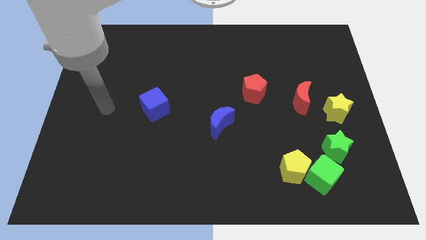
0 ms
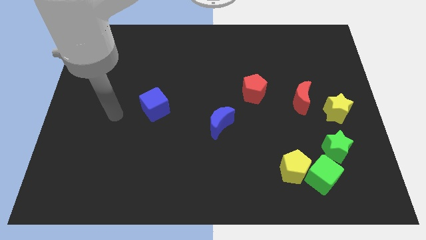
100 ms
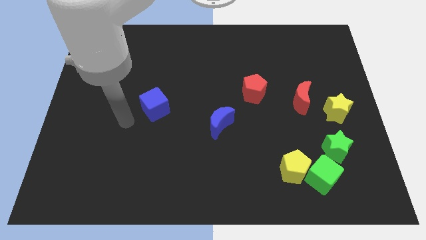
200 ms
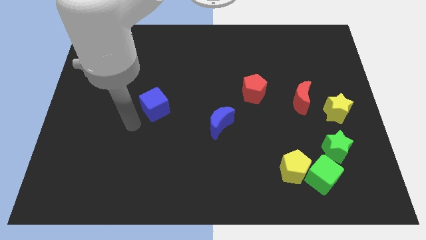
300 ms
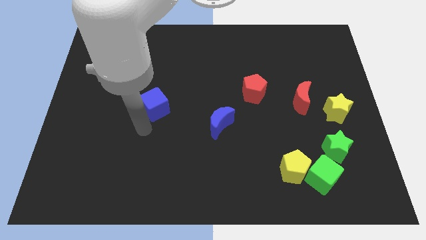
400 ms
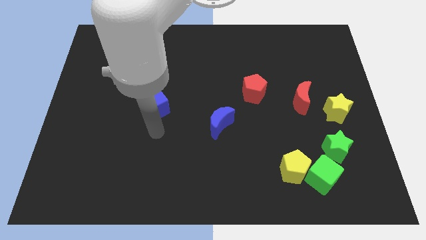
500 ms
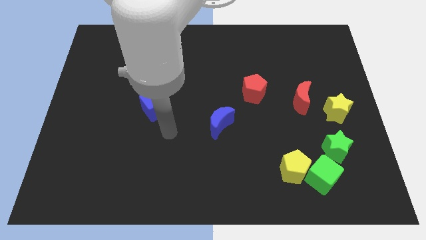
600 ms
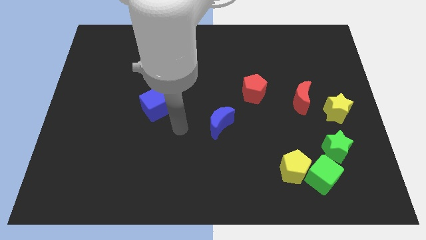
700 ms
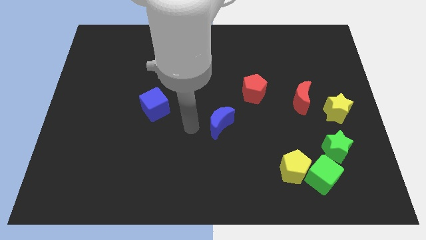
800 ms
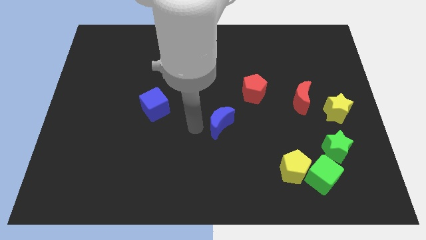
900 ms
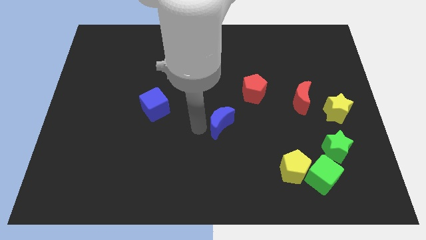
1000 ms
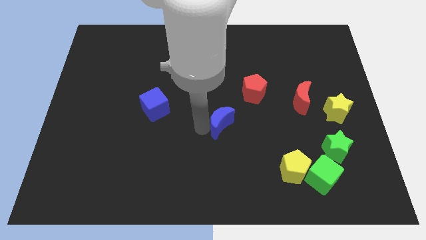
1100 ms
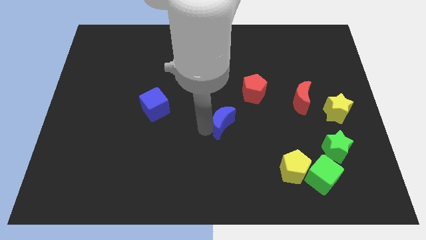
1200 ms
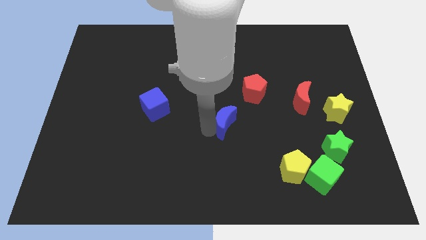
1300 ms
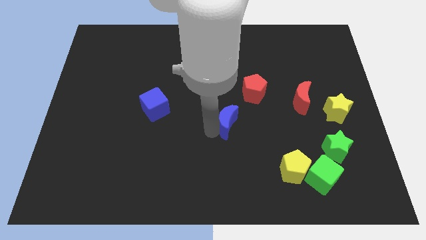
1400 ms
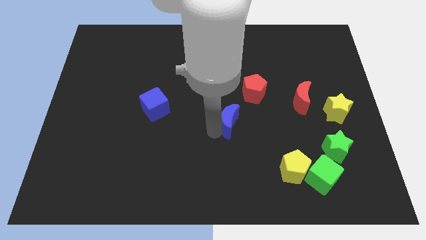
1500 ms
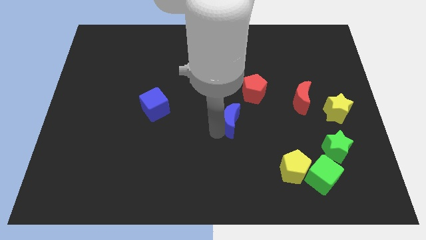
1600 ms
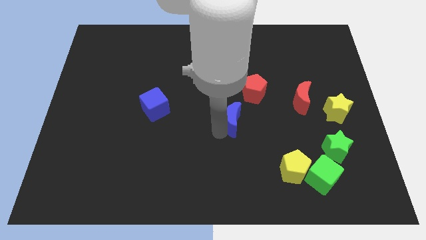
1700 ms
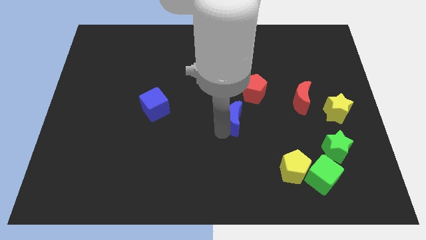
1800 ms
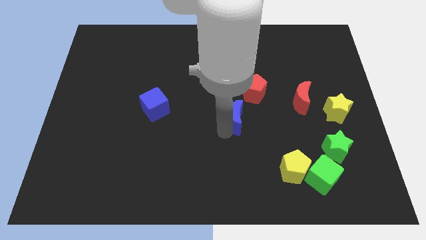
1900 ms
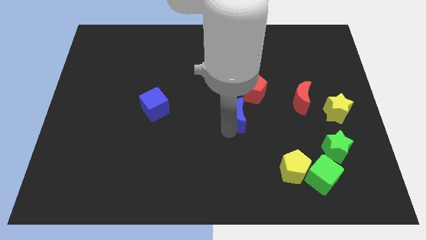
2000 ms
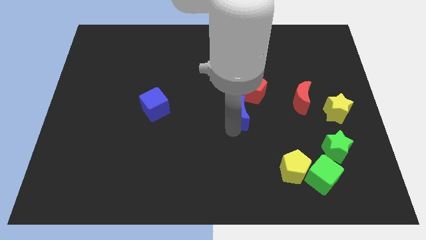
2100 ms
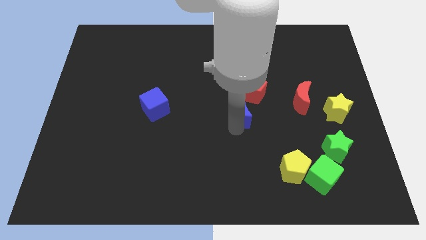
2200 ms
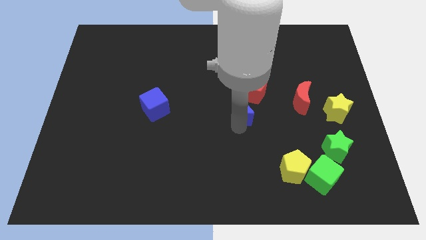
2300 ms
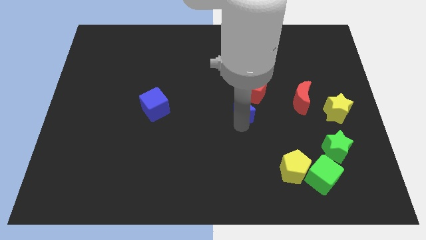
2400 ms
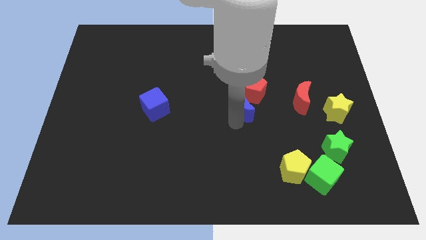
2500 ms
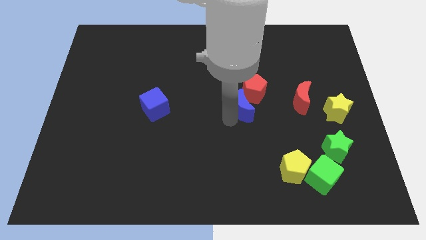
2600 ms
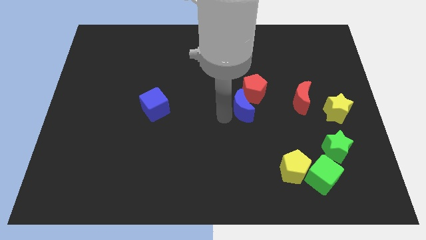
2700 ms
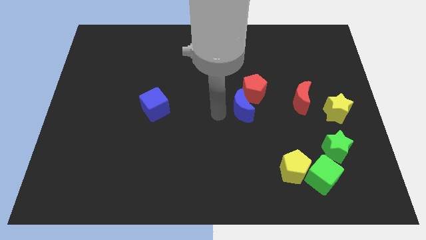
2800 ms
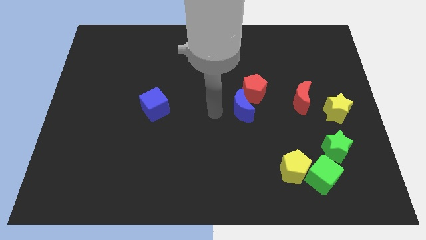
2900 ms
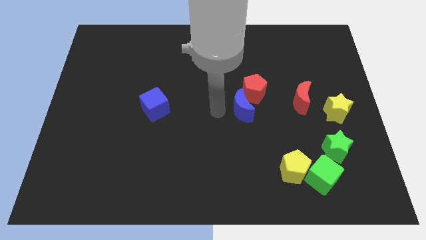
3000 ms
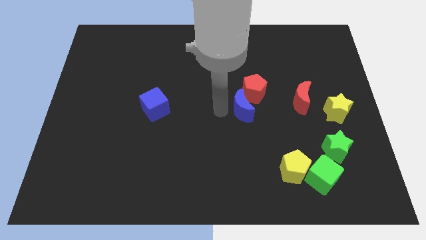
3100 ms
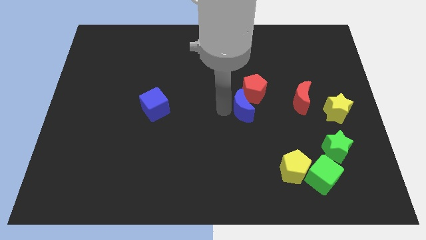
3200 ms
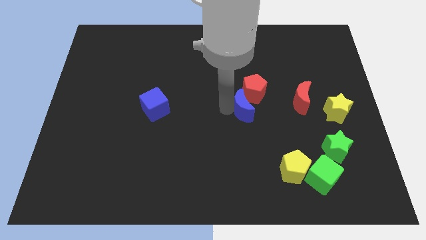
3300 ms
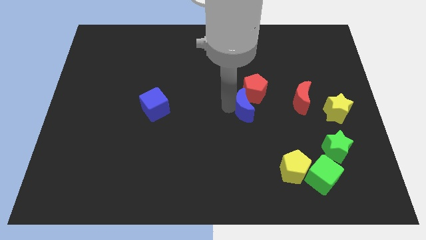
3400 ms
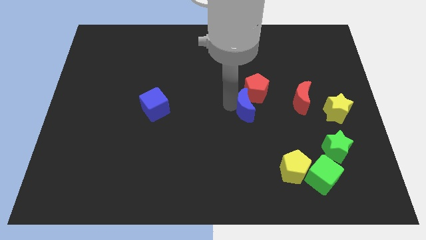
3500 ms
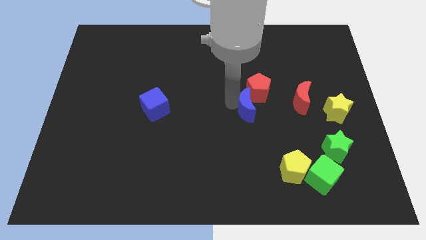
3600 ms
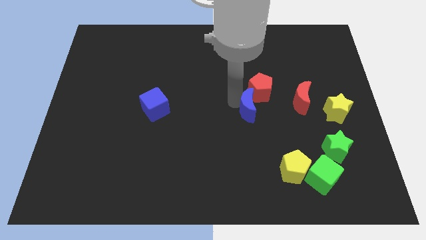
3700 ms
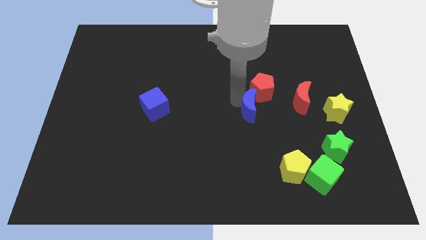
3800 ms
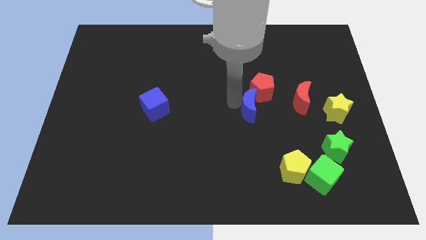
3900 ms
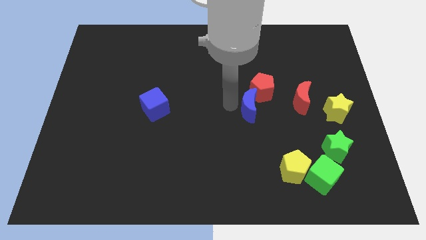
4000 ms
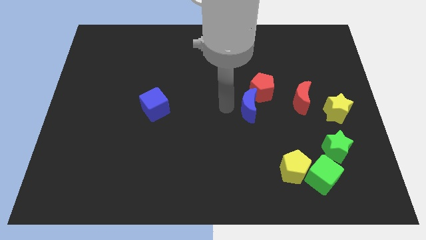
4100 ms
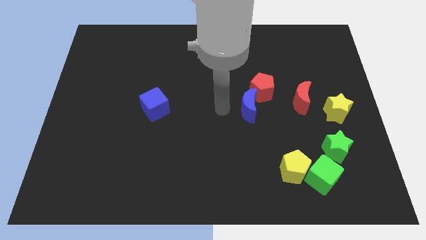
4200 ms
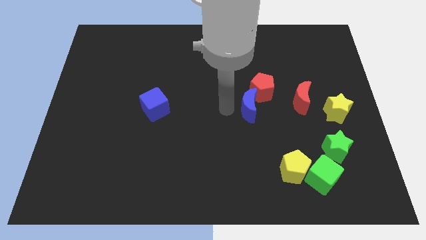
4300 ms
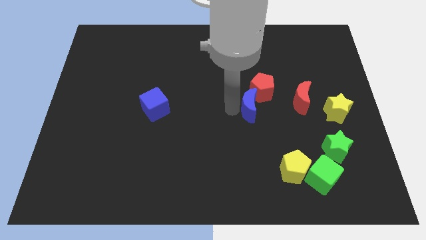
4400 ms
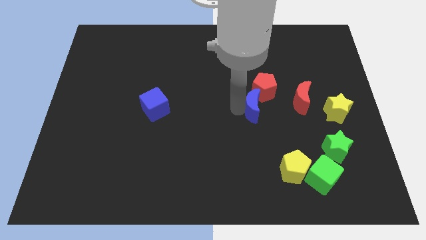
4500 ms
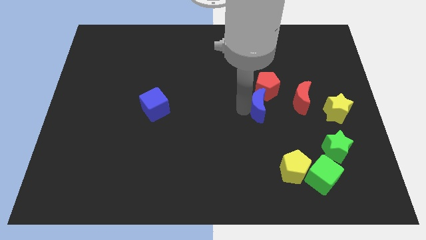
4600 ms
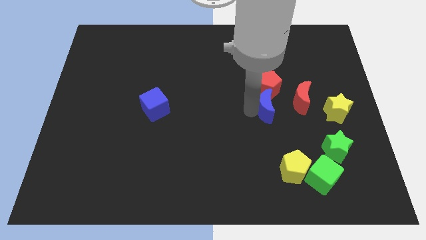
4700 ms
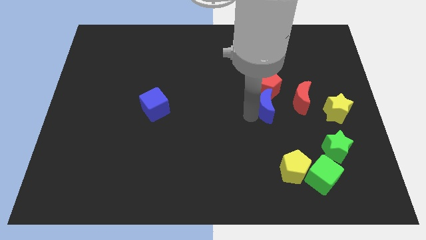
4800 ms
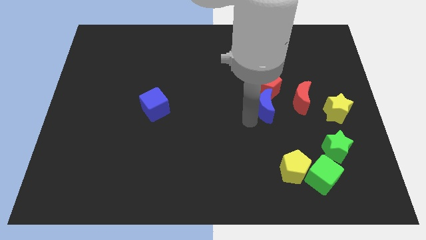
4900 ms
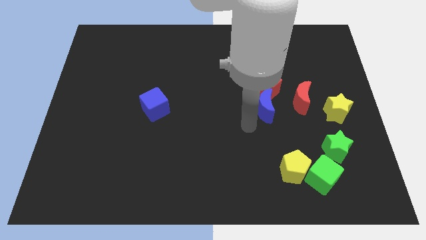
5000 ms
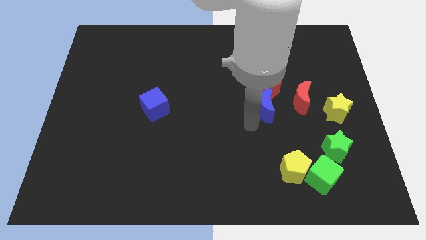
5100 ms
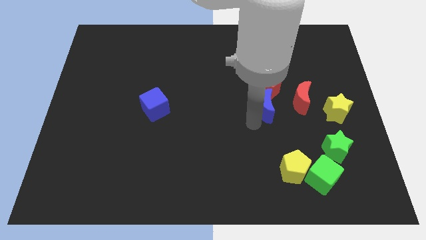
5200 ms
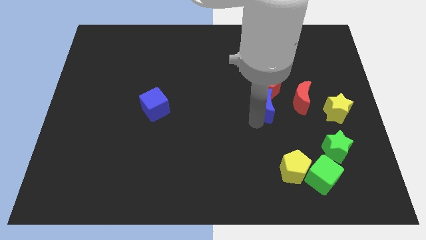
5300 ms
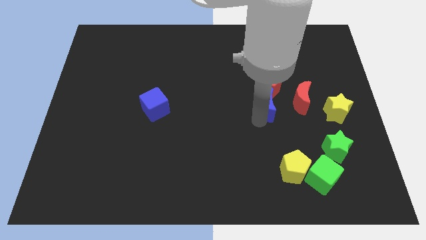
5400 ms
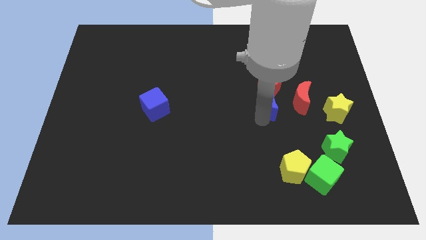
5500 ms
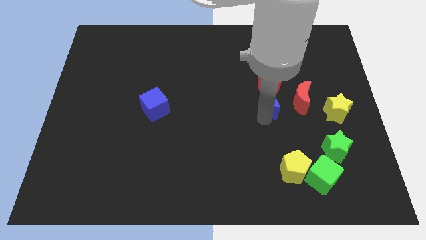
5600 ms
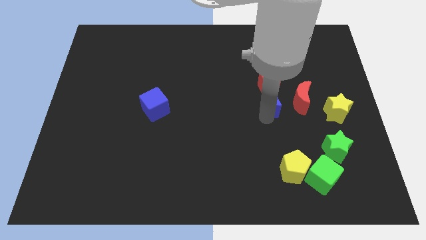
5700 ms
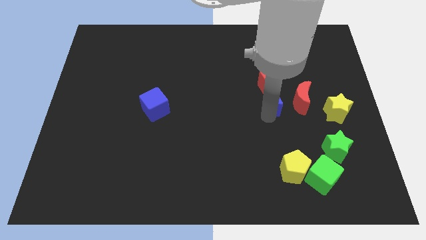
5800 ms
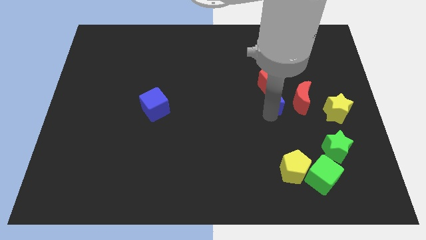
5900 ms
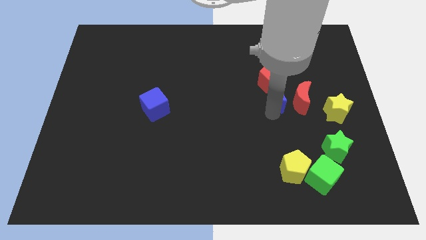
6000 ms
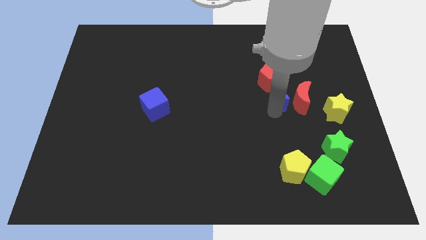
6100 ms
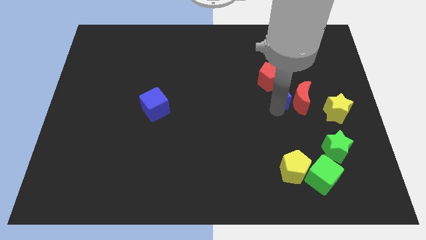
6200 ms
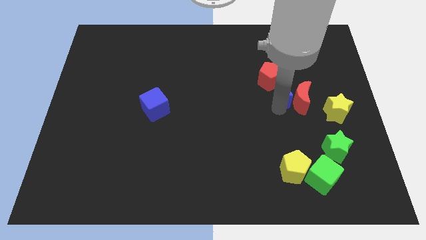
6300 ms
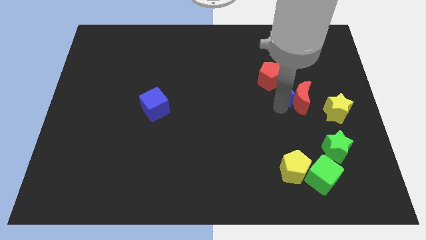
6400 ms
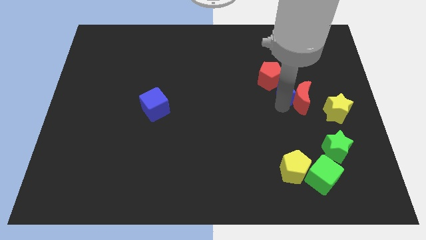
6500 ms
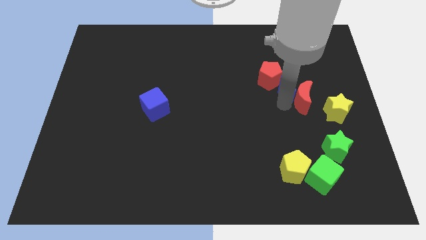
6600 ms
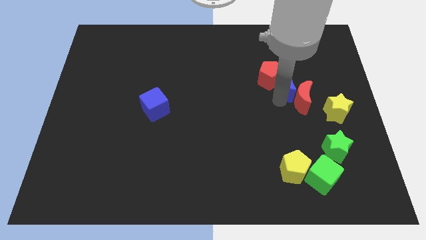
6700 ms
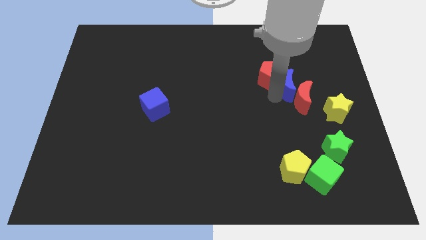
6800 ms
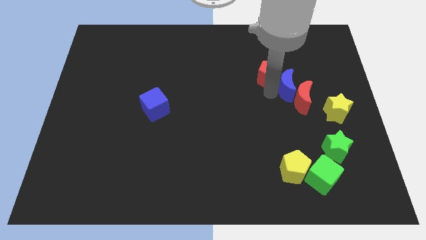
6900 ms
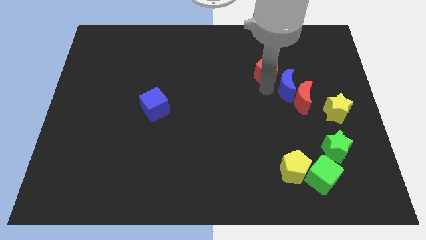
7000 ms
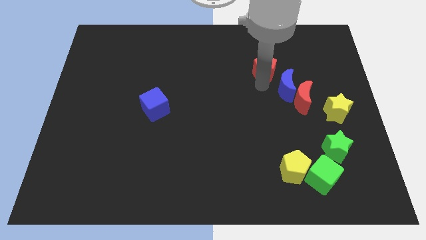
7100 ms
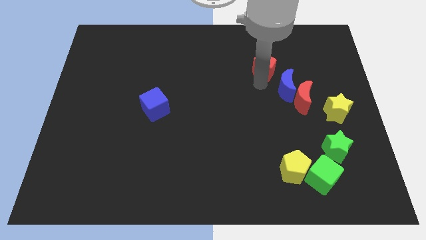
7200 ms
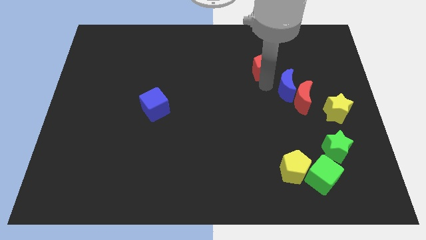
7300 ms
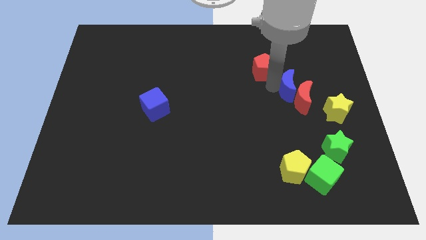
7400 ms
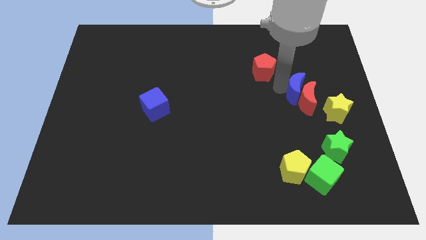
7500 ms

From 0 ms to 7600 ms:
move the blue moon diagonally up and to the left of the yellow star
